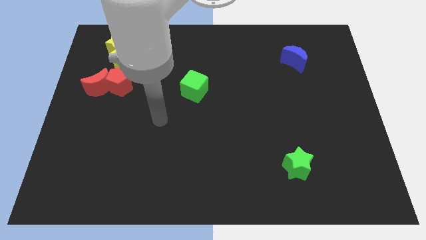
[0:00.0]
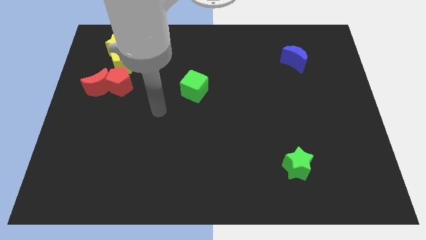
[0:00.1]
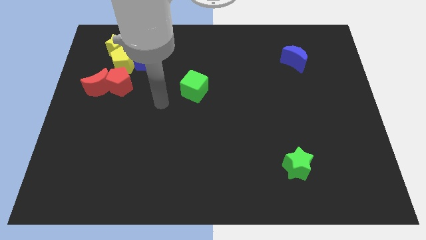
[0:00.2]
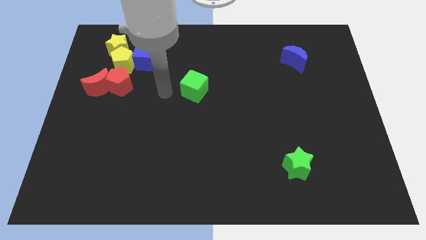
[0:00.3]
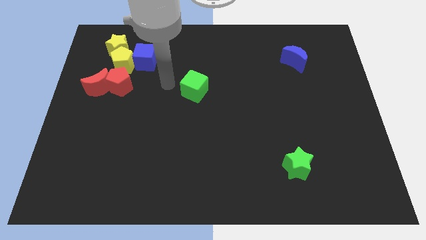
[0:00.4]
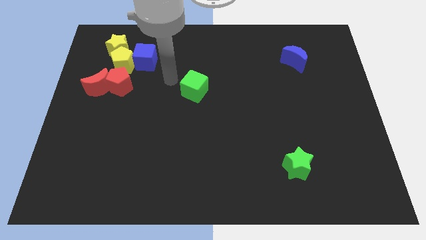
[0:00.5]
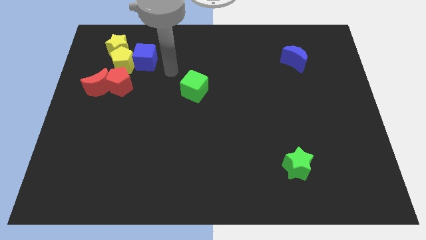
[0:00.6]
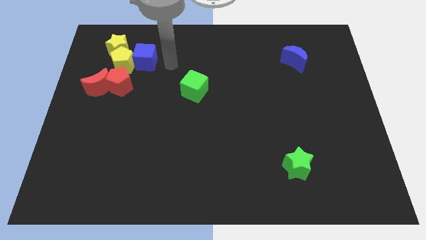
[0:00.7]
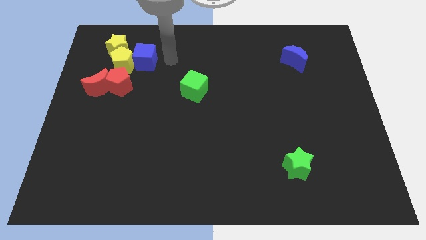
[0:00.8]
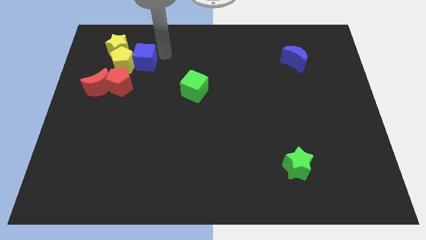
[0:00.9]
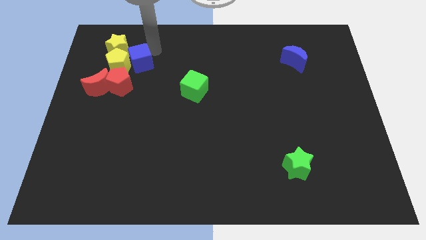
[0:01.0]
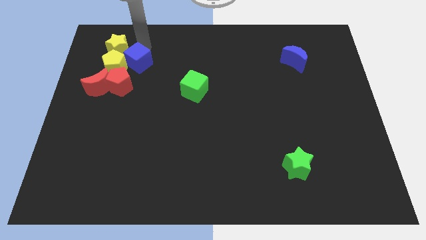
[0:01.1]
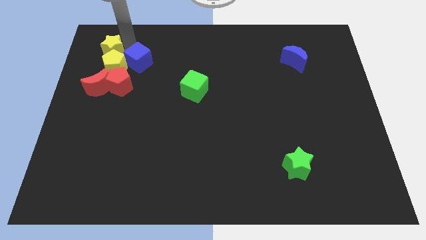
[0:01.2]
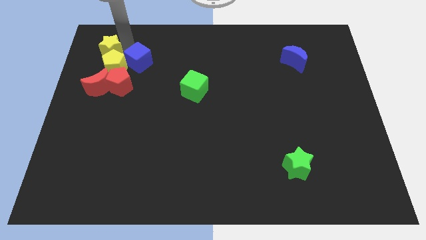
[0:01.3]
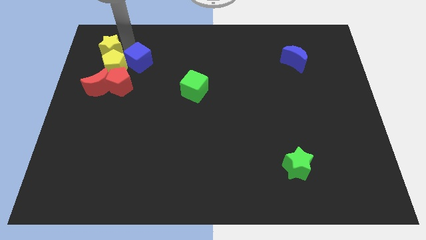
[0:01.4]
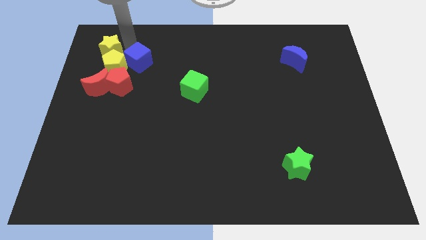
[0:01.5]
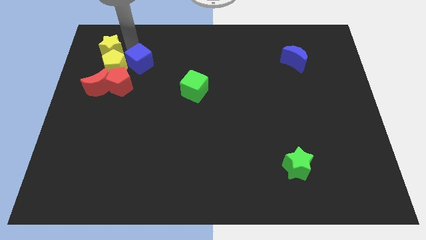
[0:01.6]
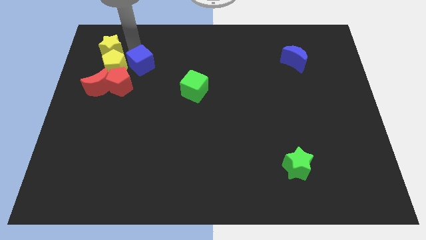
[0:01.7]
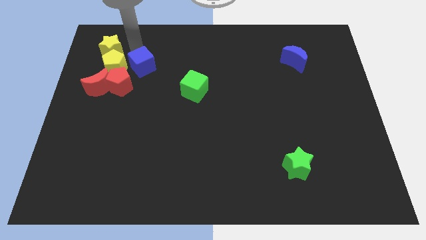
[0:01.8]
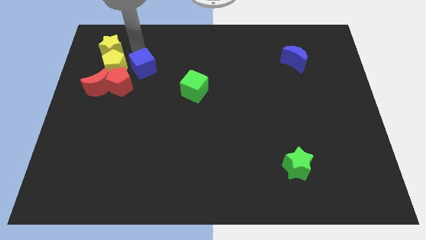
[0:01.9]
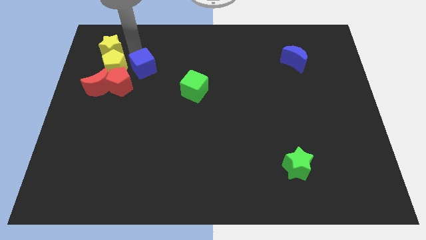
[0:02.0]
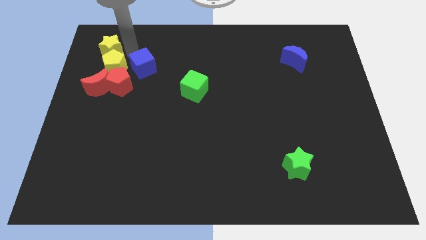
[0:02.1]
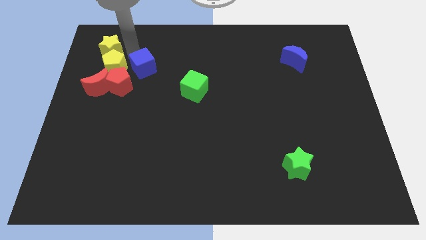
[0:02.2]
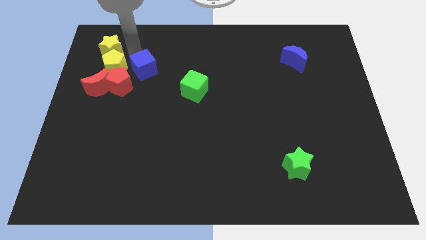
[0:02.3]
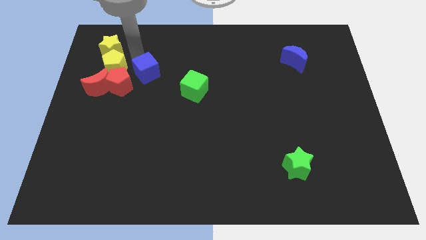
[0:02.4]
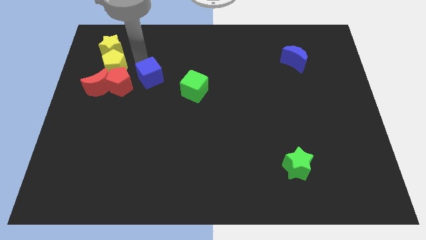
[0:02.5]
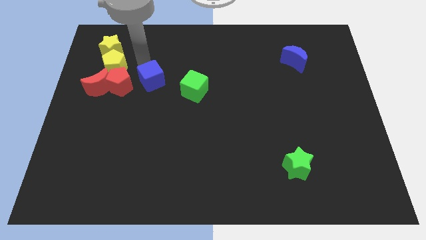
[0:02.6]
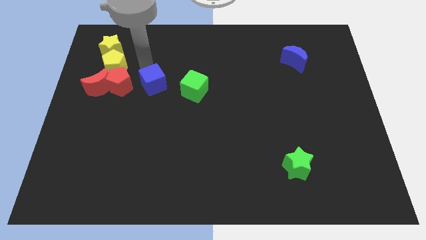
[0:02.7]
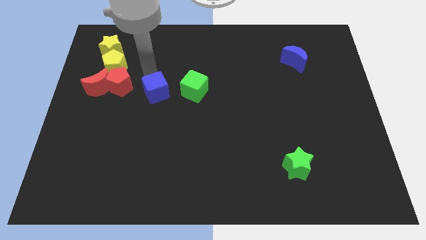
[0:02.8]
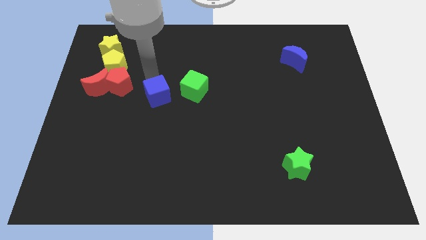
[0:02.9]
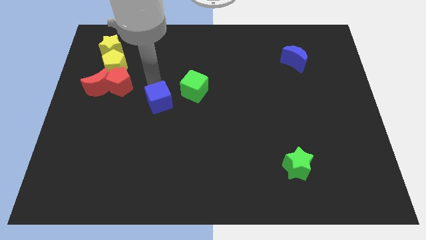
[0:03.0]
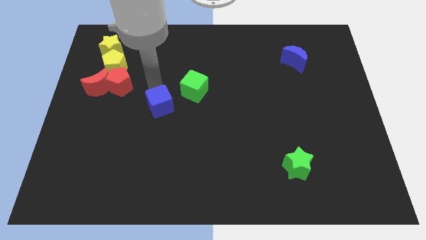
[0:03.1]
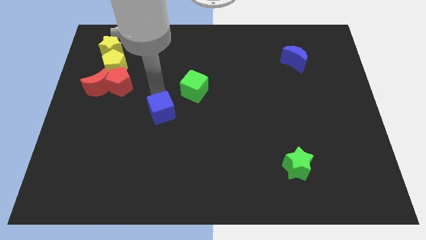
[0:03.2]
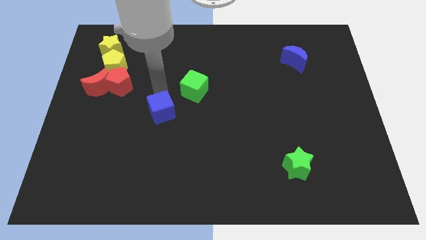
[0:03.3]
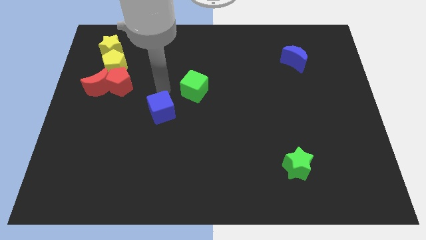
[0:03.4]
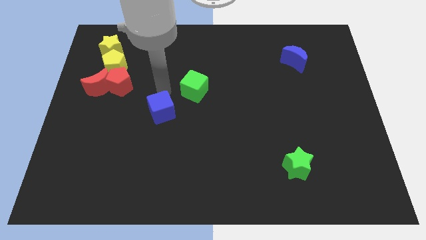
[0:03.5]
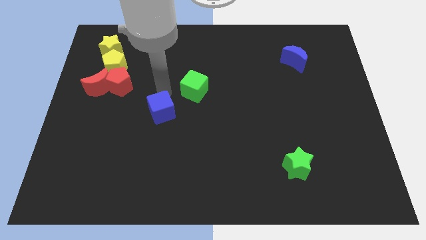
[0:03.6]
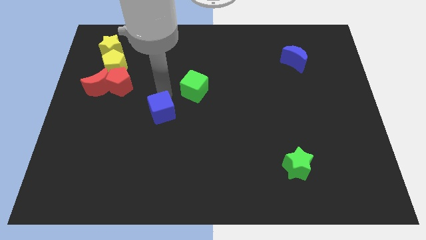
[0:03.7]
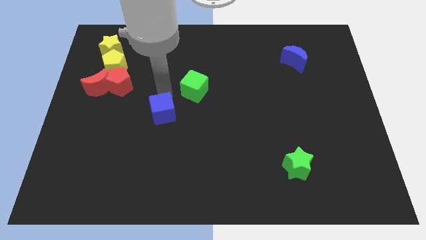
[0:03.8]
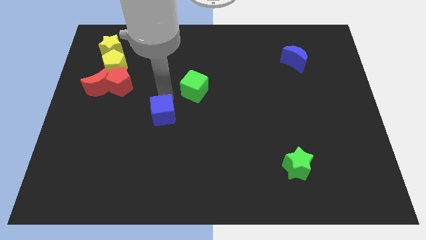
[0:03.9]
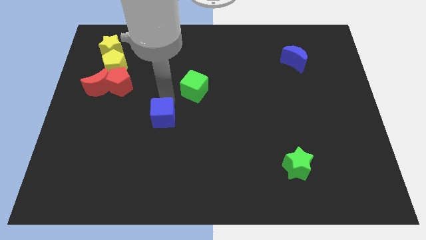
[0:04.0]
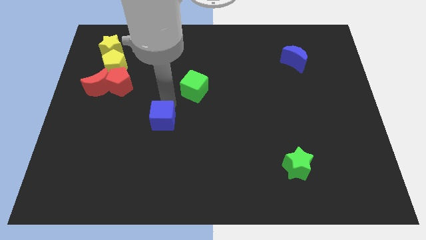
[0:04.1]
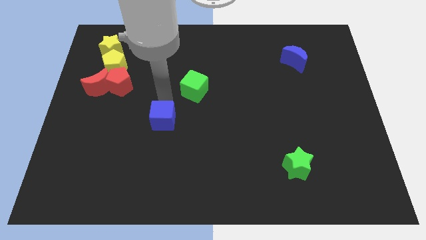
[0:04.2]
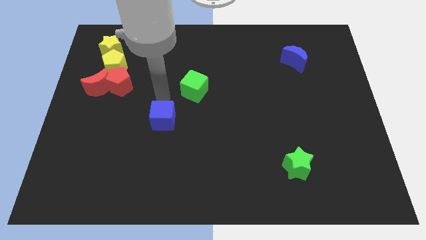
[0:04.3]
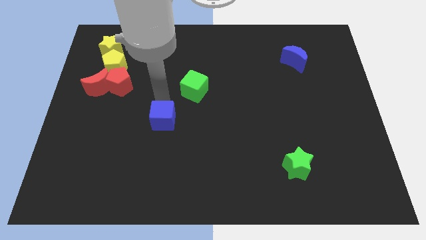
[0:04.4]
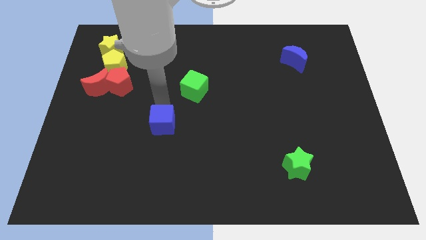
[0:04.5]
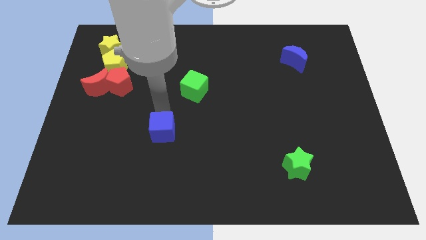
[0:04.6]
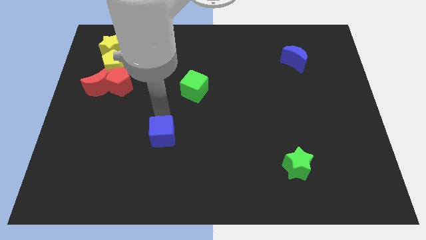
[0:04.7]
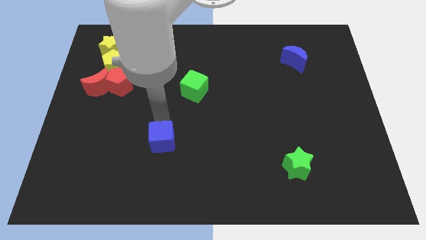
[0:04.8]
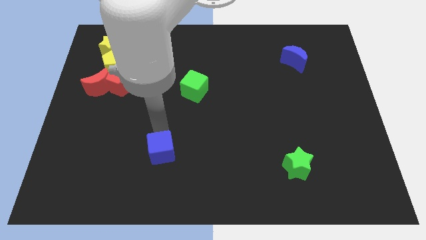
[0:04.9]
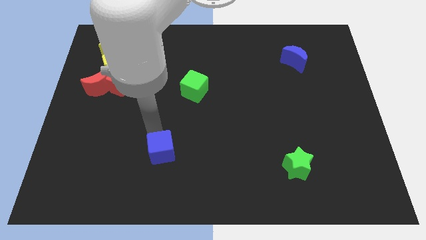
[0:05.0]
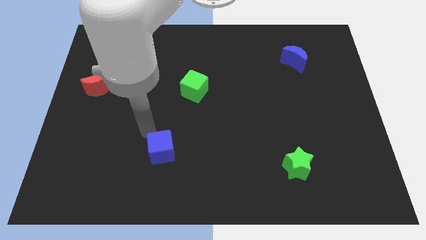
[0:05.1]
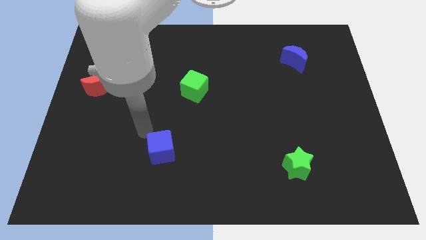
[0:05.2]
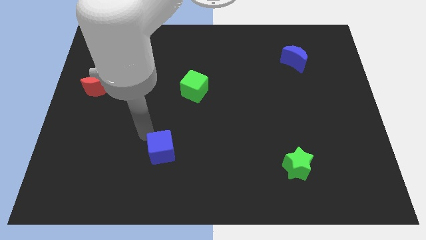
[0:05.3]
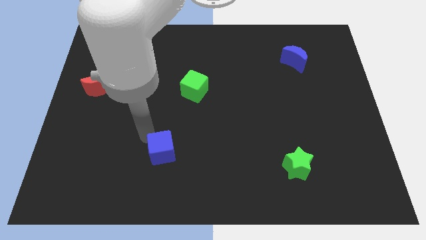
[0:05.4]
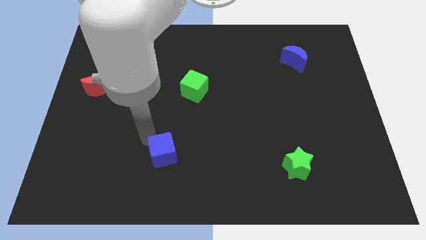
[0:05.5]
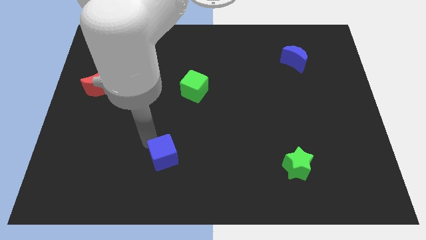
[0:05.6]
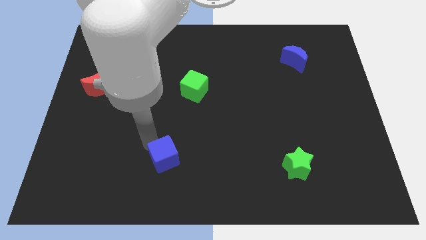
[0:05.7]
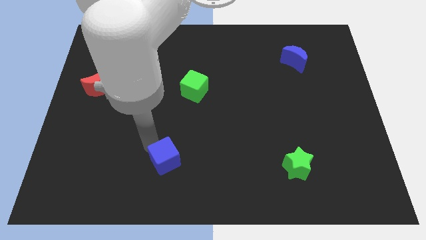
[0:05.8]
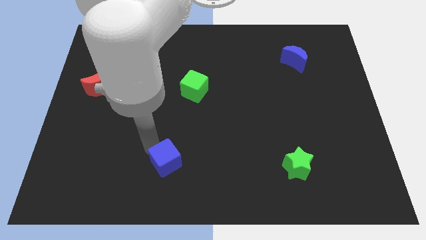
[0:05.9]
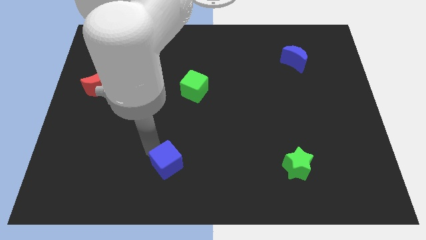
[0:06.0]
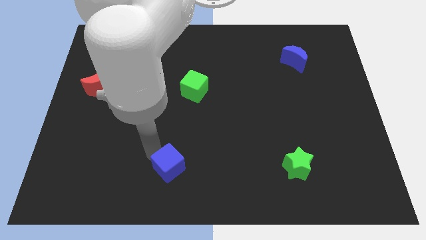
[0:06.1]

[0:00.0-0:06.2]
slide the blue cube to the bottom side

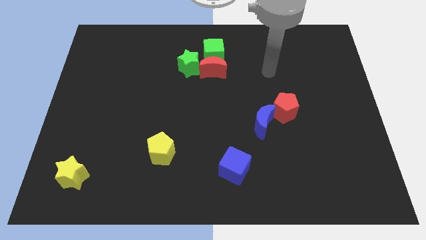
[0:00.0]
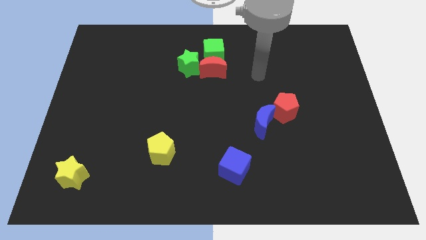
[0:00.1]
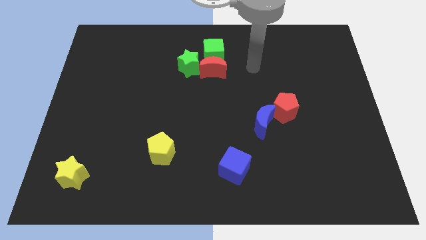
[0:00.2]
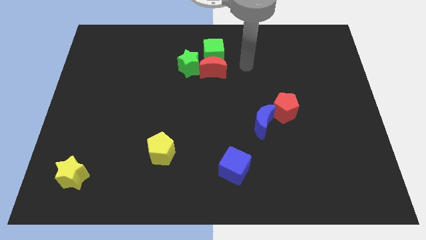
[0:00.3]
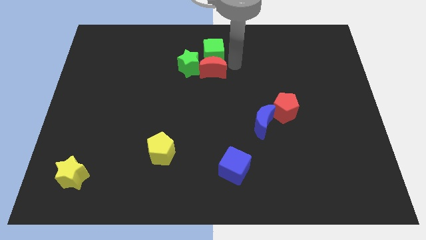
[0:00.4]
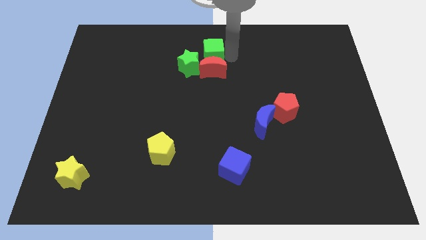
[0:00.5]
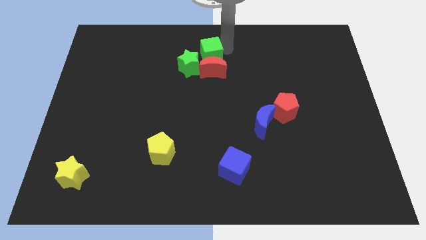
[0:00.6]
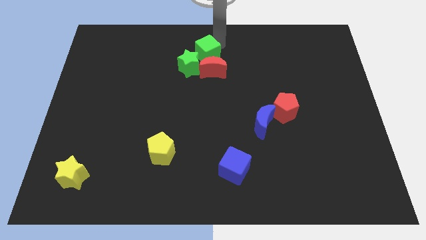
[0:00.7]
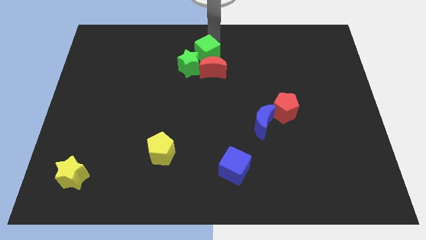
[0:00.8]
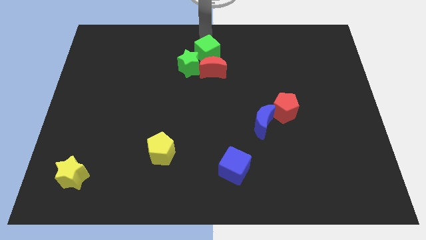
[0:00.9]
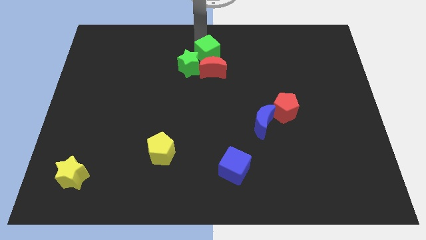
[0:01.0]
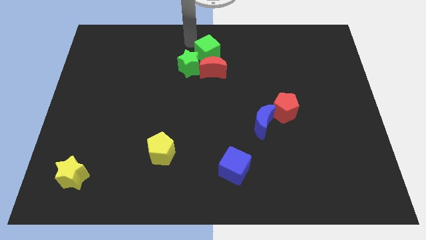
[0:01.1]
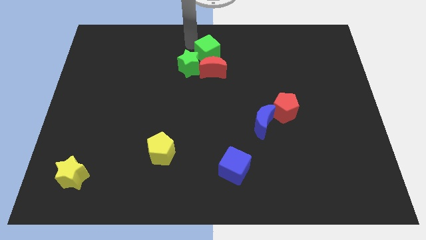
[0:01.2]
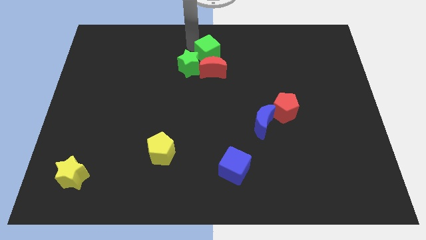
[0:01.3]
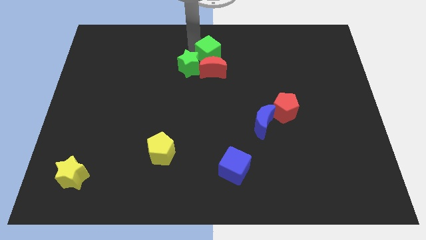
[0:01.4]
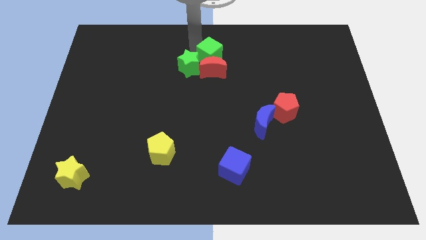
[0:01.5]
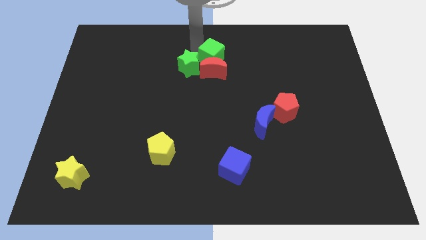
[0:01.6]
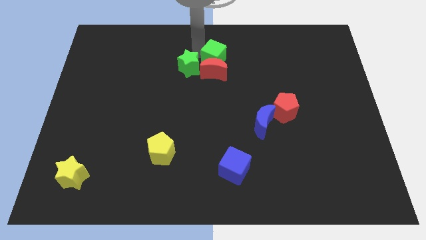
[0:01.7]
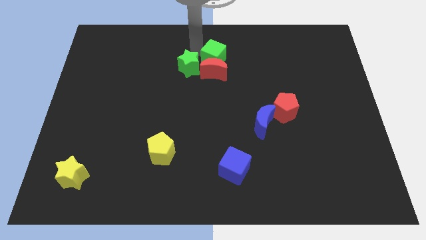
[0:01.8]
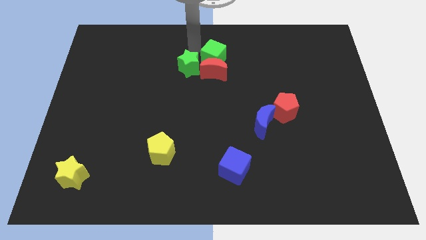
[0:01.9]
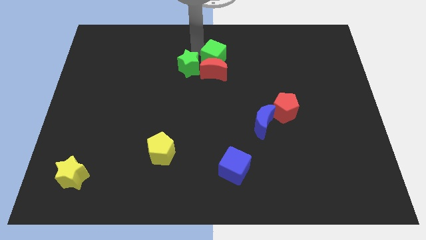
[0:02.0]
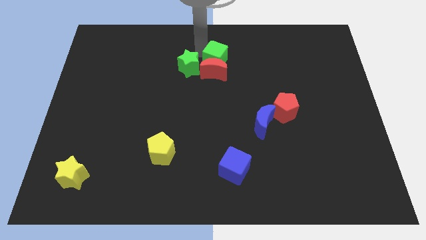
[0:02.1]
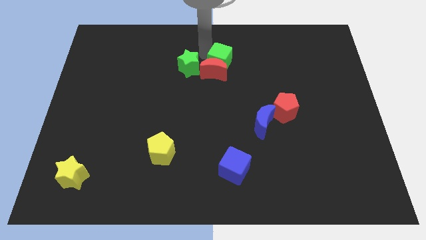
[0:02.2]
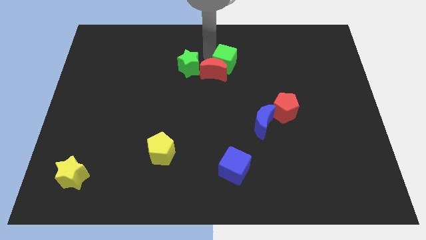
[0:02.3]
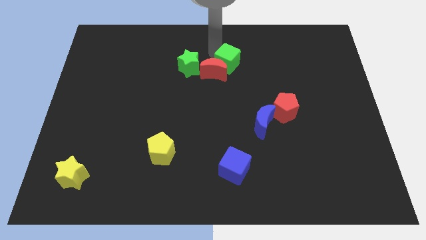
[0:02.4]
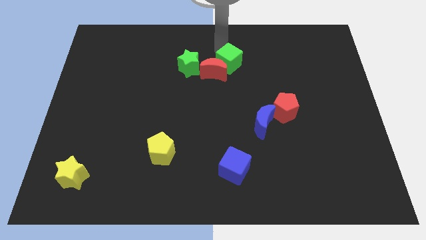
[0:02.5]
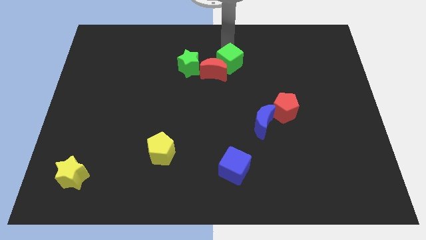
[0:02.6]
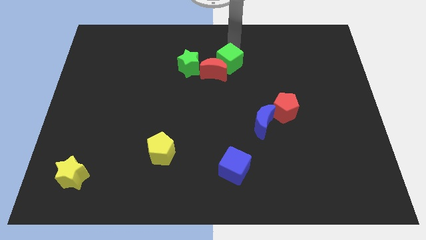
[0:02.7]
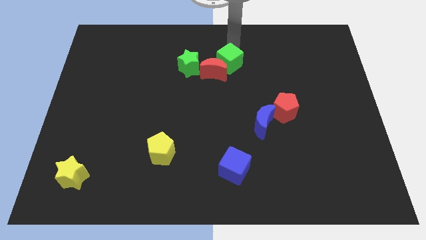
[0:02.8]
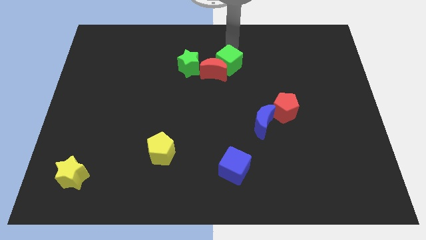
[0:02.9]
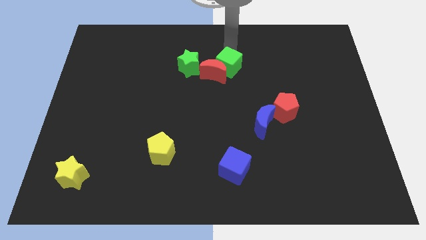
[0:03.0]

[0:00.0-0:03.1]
move the green cube to the center
